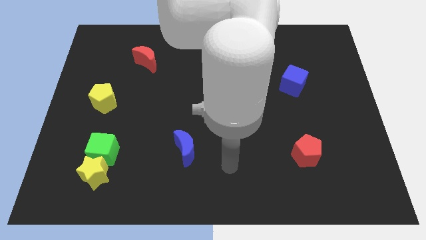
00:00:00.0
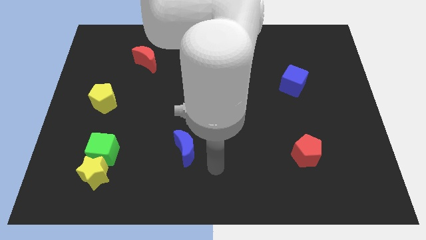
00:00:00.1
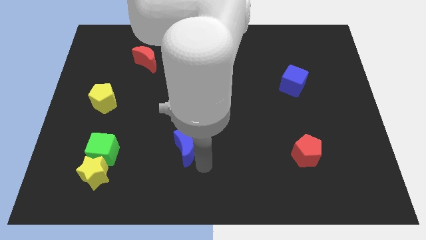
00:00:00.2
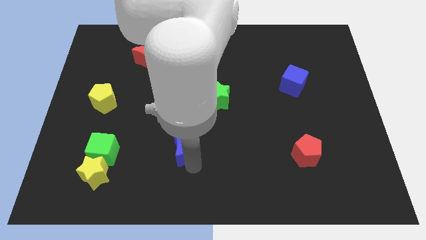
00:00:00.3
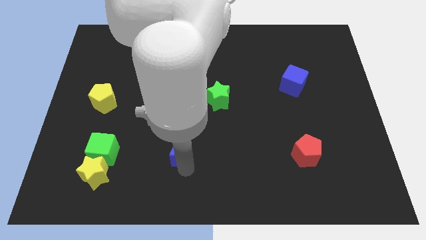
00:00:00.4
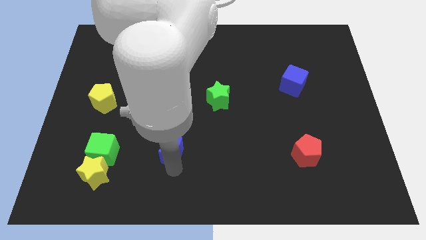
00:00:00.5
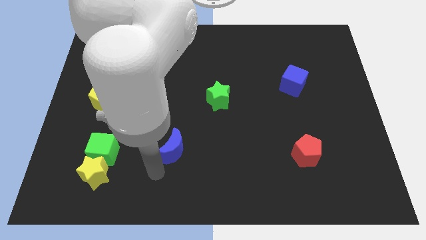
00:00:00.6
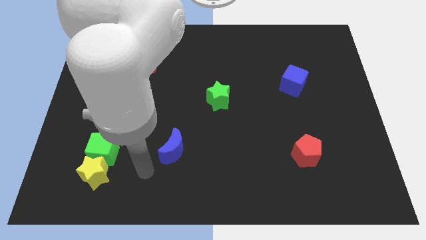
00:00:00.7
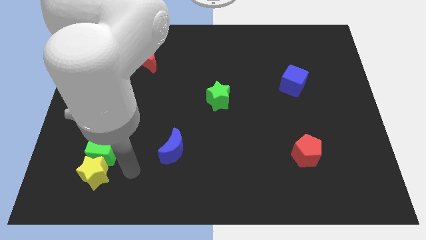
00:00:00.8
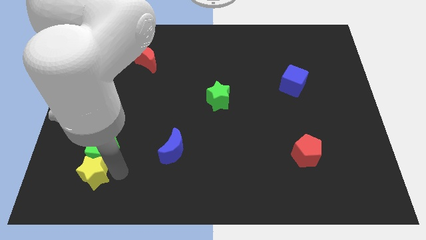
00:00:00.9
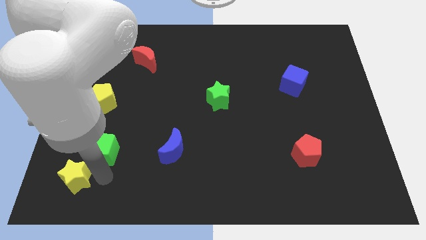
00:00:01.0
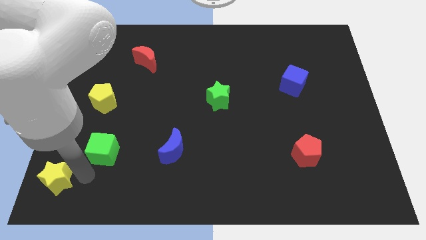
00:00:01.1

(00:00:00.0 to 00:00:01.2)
separate the green cube from the yellow star

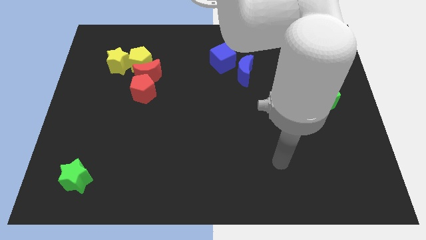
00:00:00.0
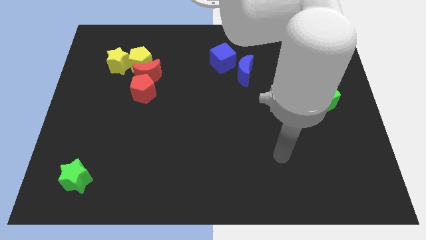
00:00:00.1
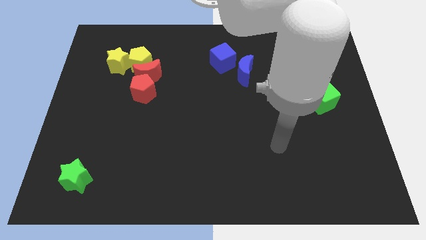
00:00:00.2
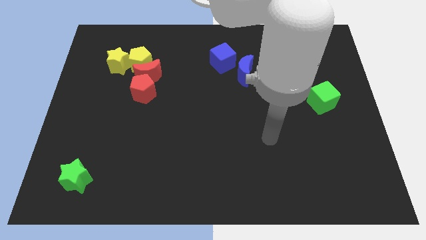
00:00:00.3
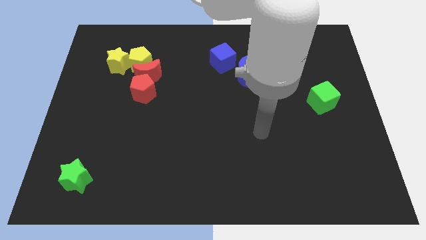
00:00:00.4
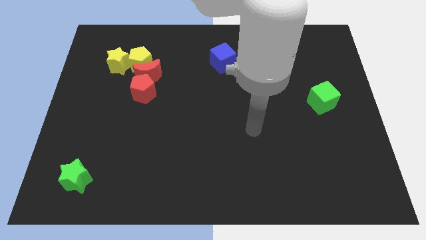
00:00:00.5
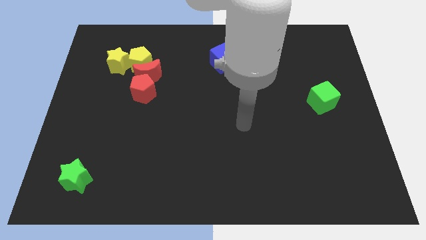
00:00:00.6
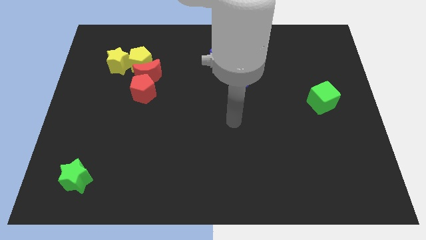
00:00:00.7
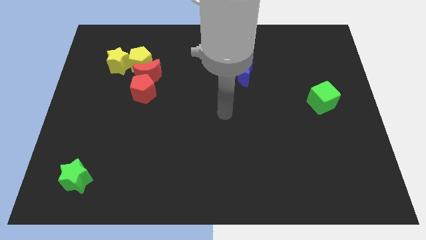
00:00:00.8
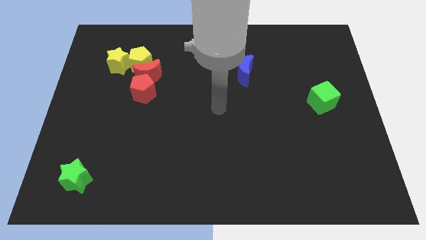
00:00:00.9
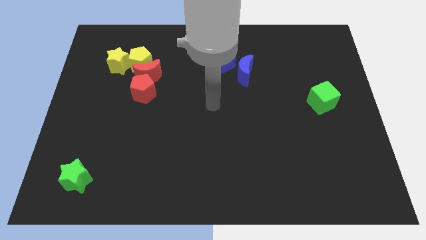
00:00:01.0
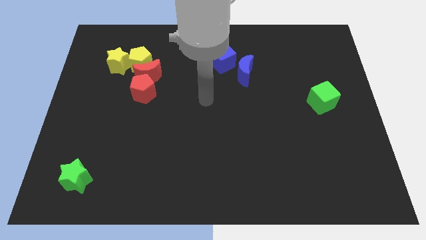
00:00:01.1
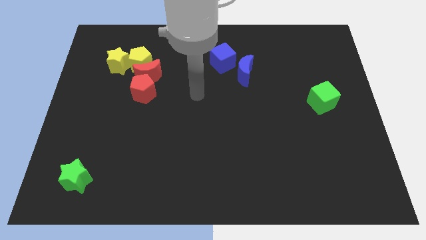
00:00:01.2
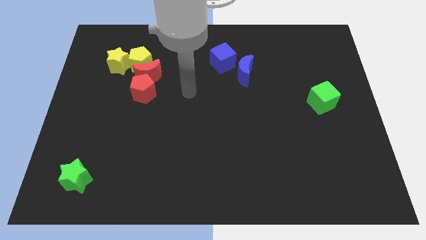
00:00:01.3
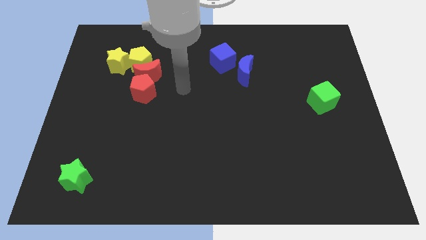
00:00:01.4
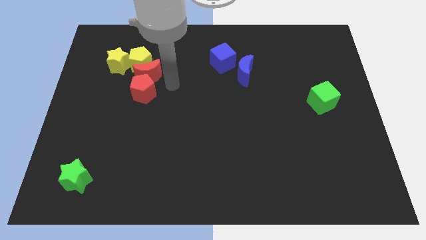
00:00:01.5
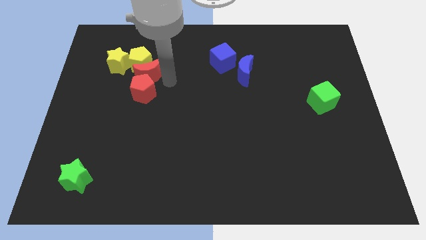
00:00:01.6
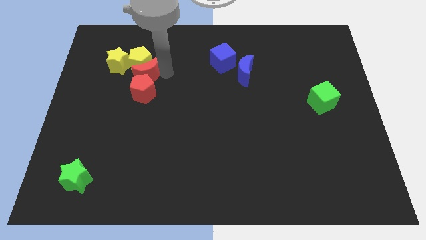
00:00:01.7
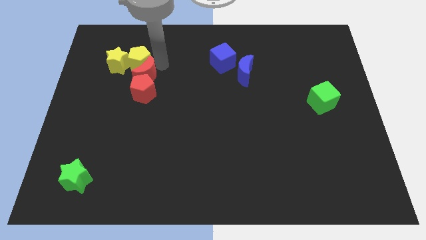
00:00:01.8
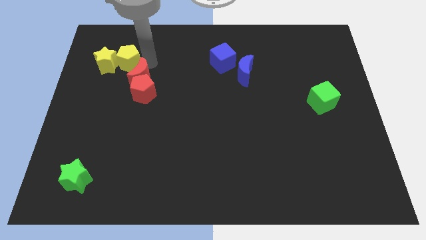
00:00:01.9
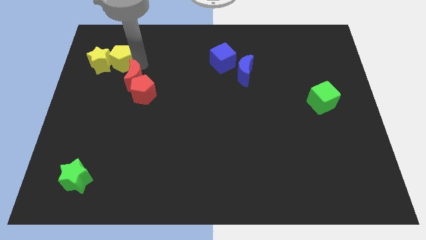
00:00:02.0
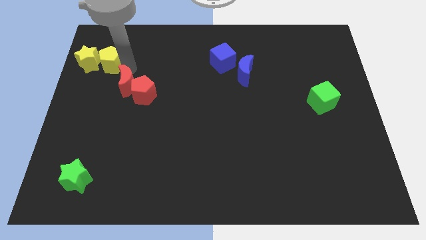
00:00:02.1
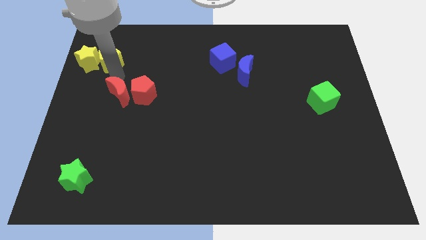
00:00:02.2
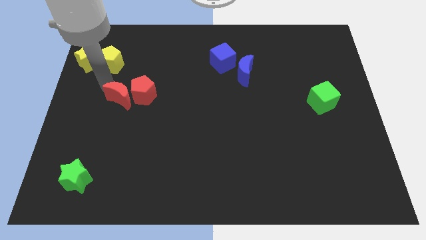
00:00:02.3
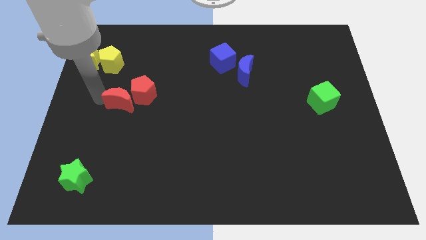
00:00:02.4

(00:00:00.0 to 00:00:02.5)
move the red moon away from the yellow pentagon, red pentagon, and yellow star

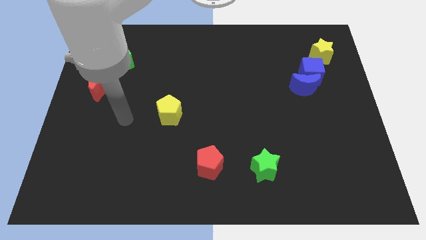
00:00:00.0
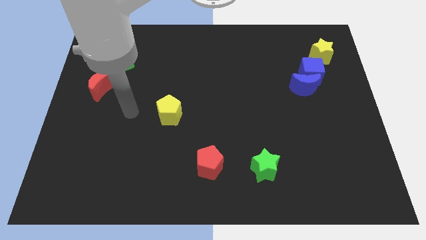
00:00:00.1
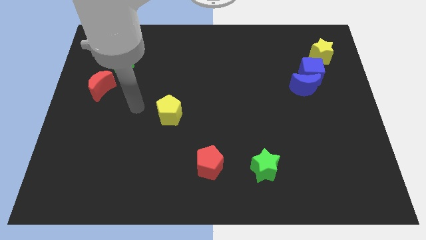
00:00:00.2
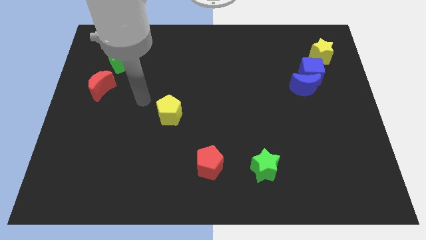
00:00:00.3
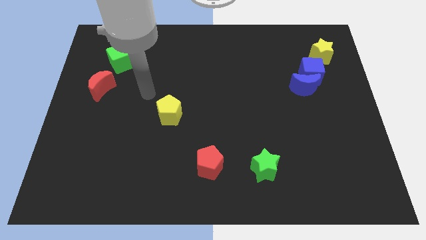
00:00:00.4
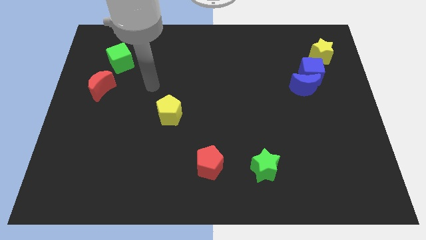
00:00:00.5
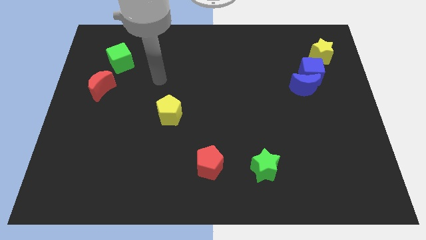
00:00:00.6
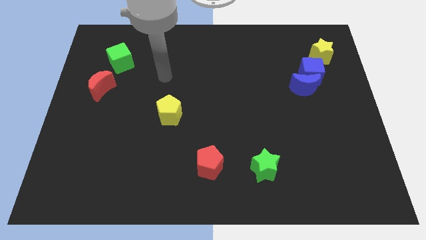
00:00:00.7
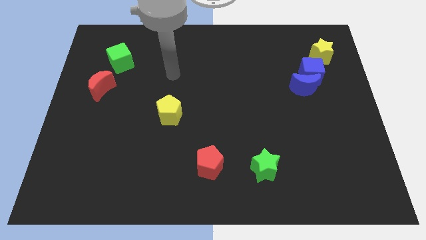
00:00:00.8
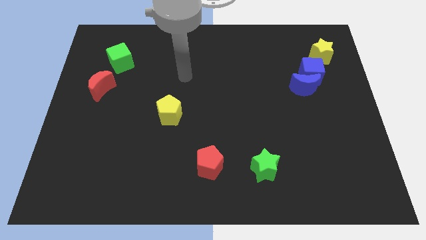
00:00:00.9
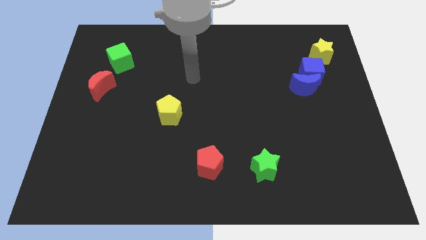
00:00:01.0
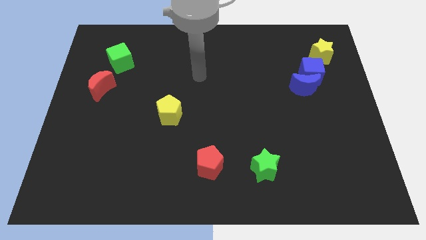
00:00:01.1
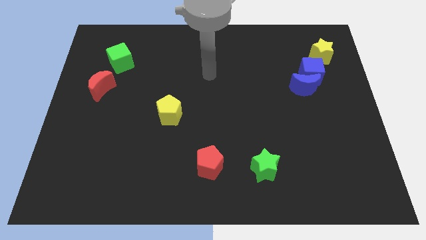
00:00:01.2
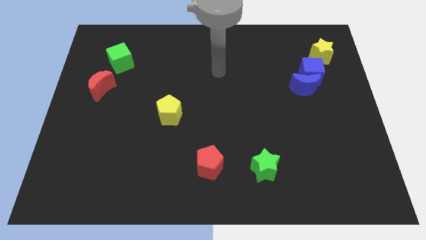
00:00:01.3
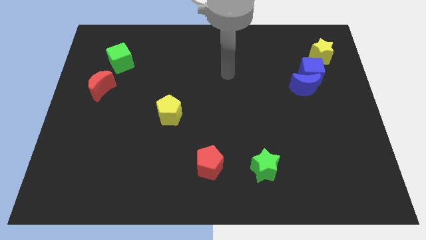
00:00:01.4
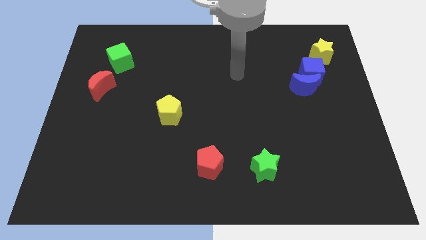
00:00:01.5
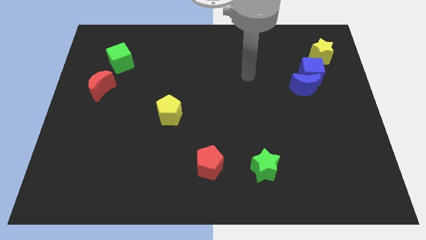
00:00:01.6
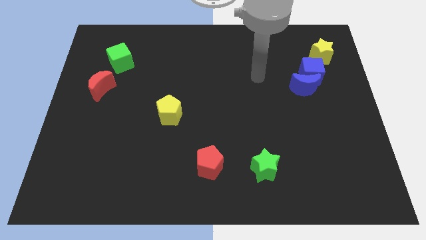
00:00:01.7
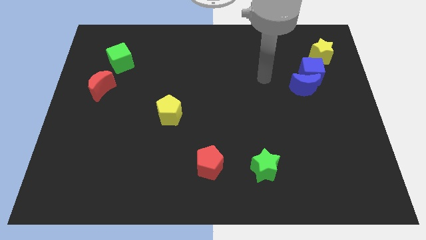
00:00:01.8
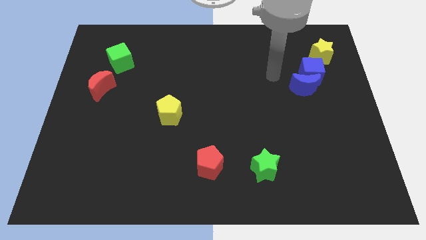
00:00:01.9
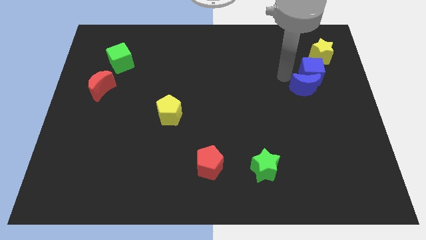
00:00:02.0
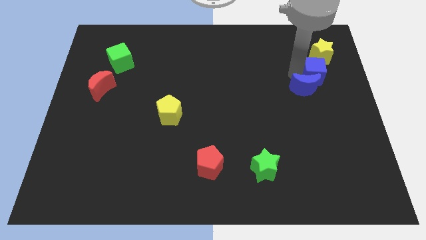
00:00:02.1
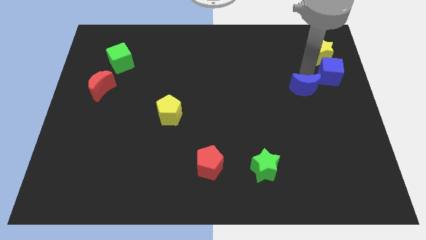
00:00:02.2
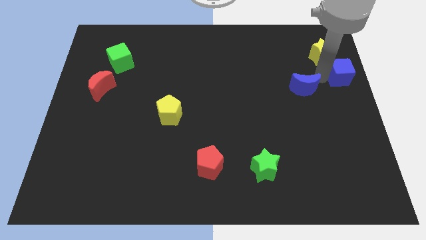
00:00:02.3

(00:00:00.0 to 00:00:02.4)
move the blue moon away from the blue cube

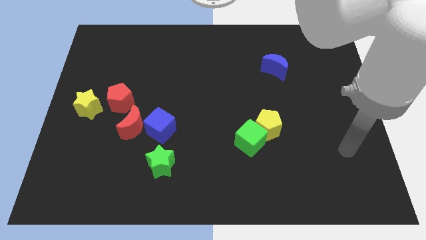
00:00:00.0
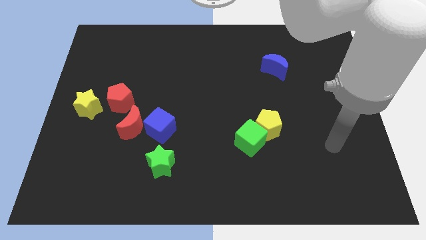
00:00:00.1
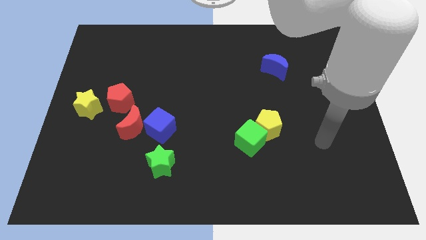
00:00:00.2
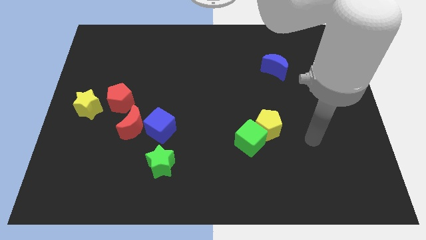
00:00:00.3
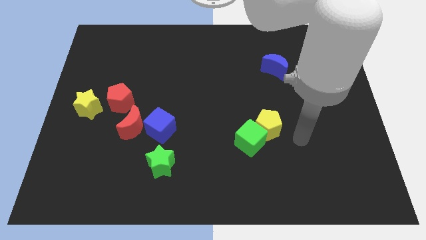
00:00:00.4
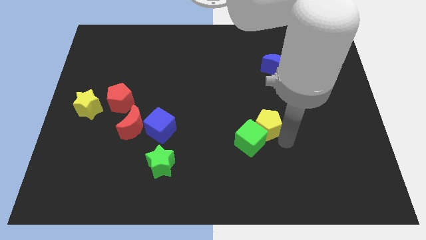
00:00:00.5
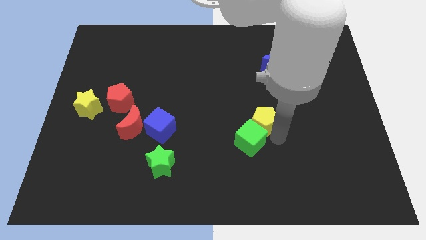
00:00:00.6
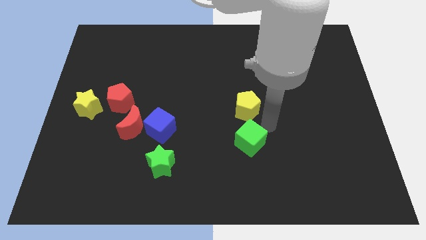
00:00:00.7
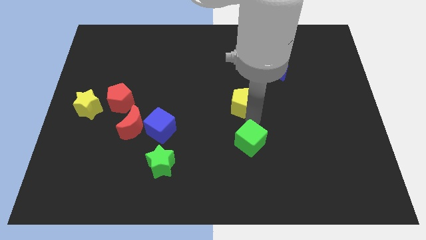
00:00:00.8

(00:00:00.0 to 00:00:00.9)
pull the green cube apart from the yellow pentagon

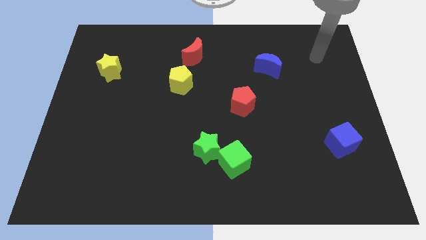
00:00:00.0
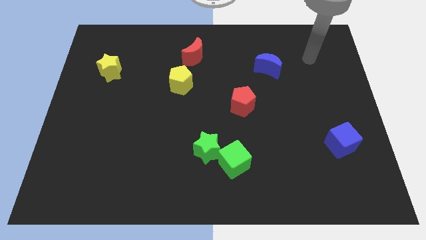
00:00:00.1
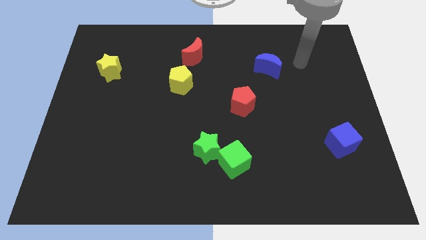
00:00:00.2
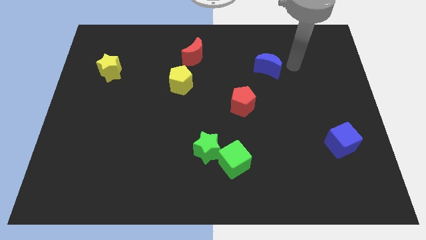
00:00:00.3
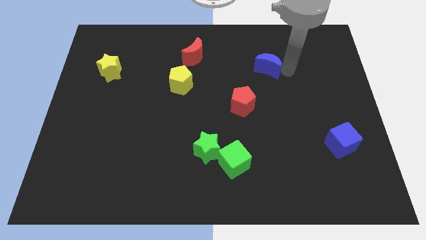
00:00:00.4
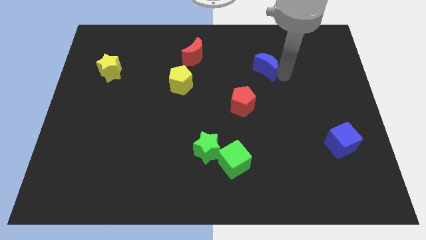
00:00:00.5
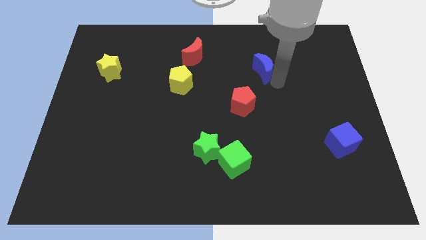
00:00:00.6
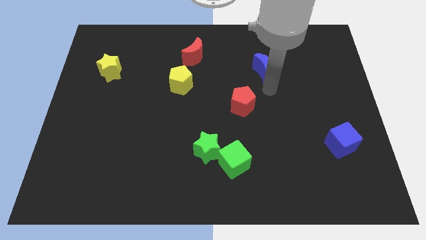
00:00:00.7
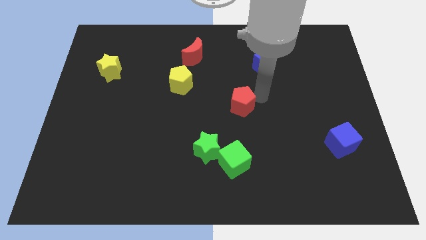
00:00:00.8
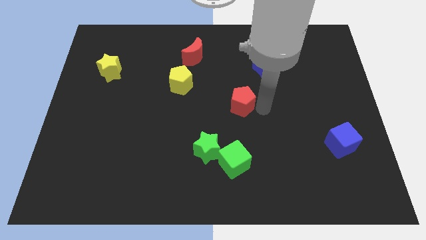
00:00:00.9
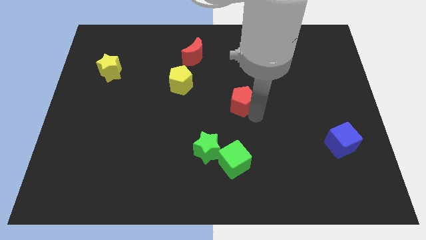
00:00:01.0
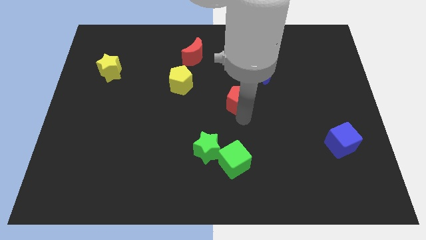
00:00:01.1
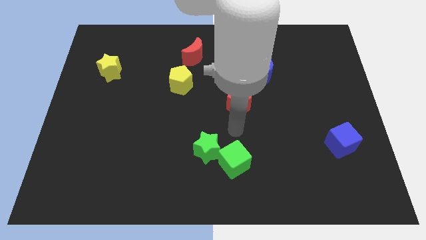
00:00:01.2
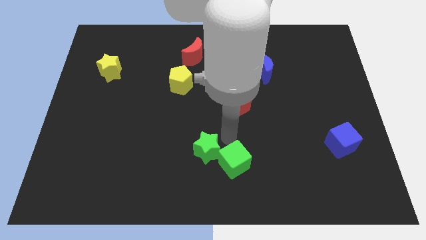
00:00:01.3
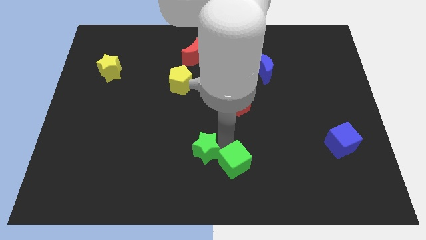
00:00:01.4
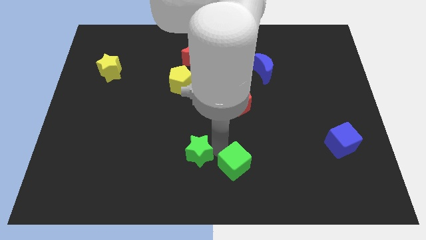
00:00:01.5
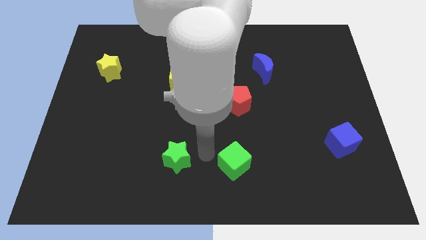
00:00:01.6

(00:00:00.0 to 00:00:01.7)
separate the green cube from the green star

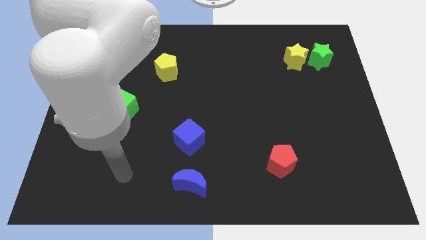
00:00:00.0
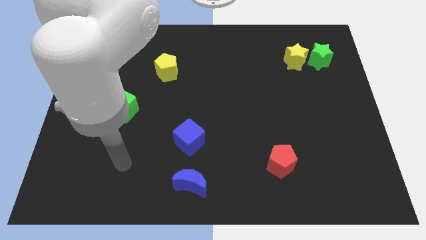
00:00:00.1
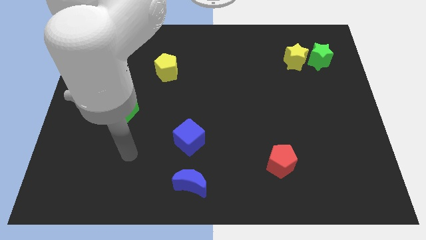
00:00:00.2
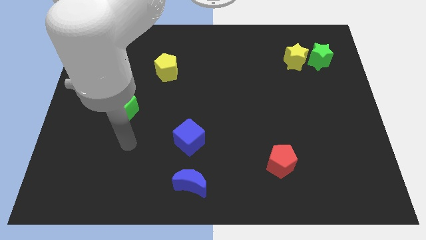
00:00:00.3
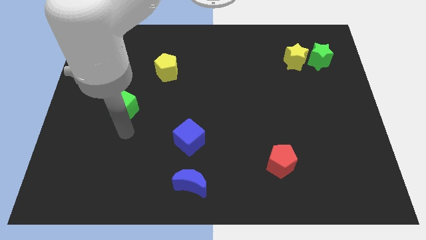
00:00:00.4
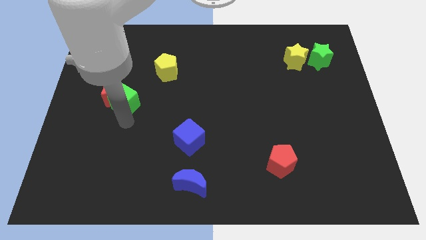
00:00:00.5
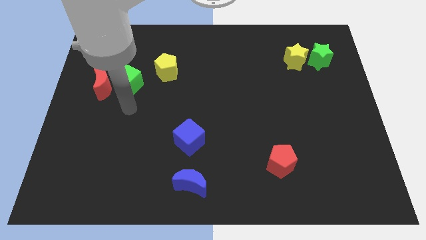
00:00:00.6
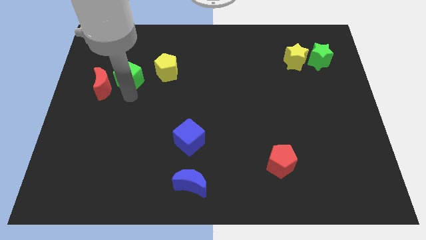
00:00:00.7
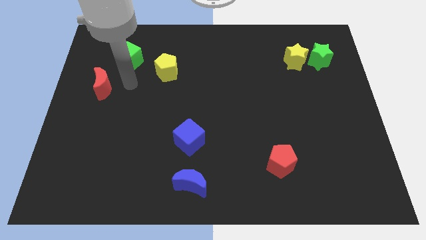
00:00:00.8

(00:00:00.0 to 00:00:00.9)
pull the red moon apart from the green cube
